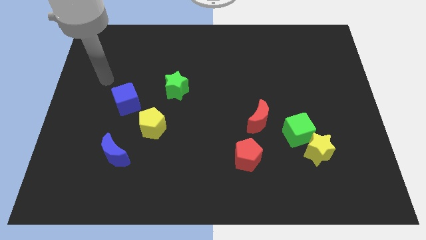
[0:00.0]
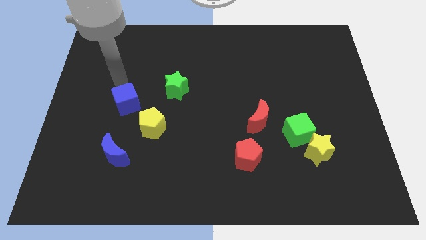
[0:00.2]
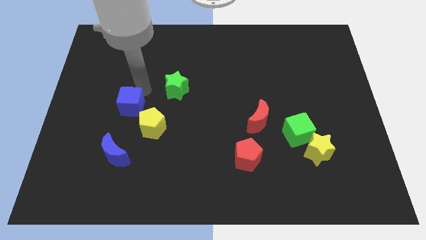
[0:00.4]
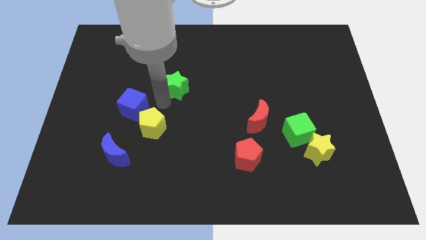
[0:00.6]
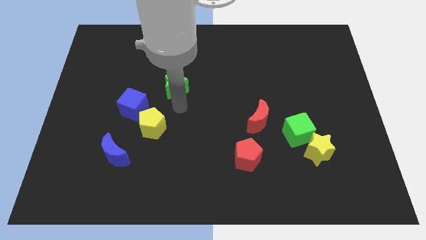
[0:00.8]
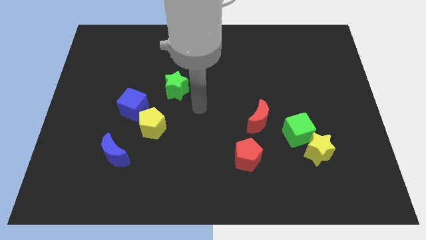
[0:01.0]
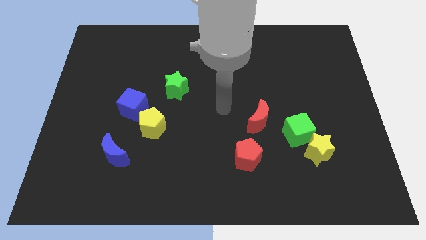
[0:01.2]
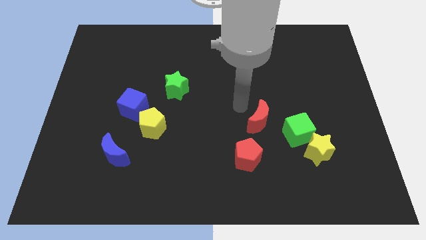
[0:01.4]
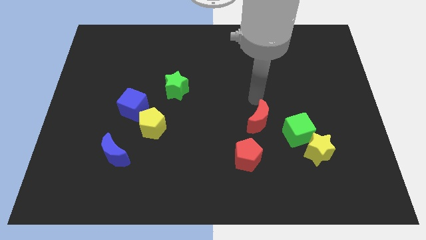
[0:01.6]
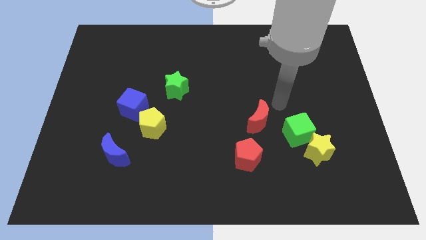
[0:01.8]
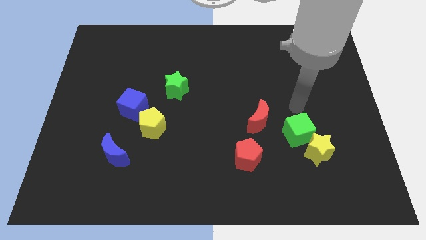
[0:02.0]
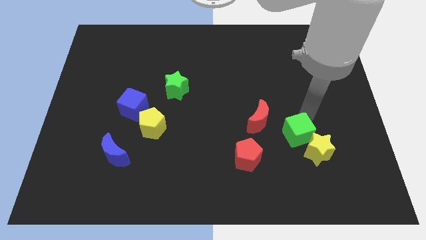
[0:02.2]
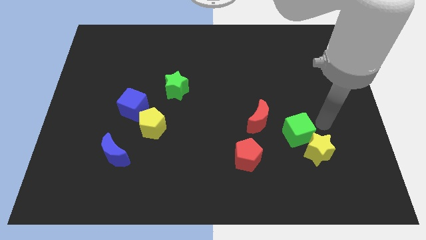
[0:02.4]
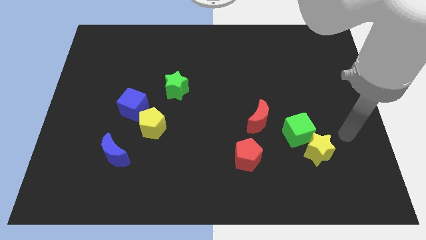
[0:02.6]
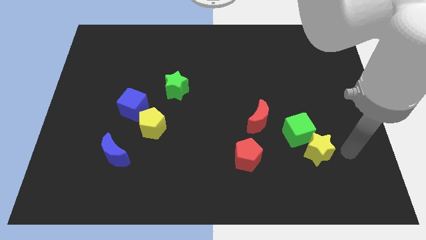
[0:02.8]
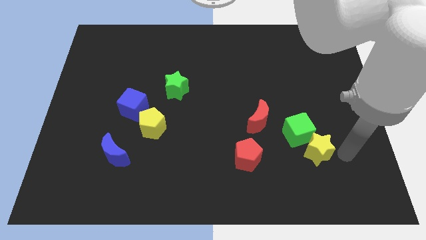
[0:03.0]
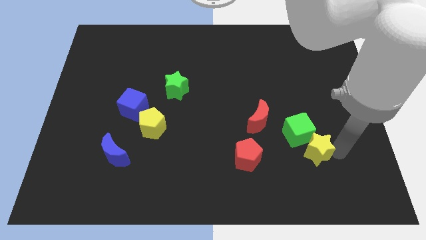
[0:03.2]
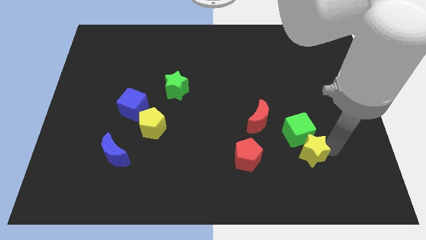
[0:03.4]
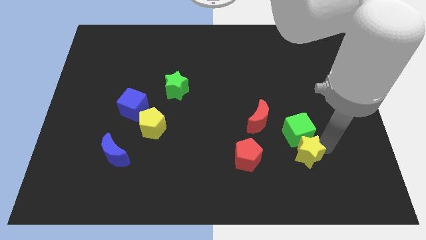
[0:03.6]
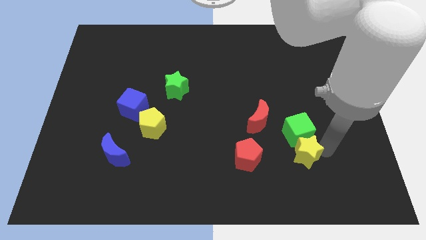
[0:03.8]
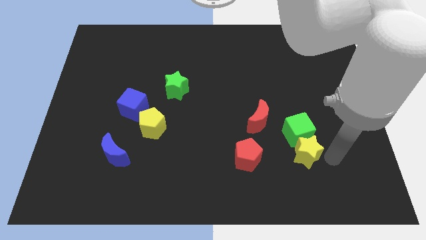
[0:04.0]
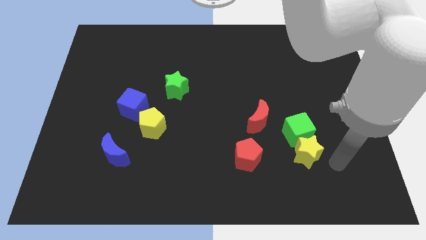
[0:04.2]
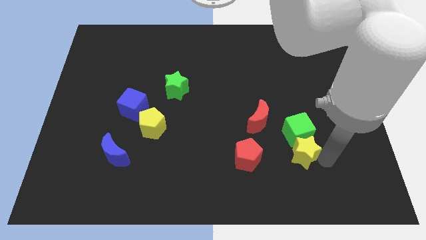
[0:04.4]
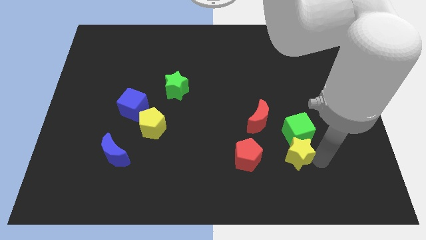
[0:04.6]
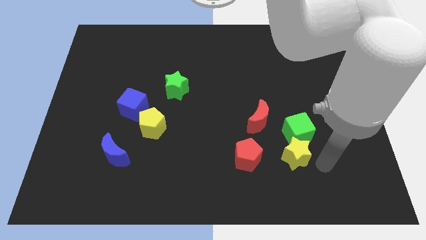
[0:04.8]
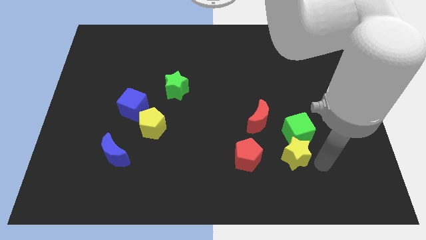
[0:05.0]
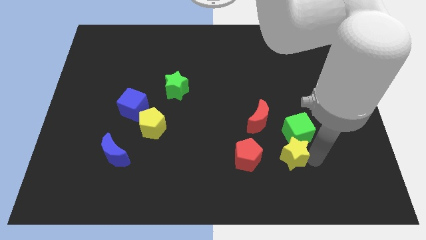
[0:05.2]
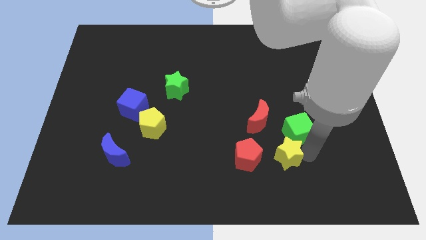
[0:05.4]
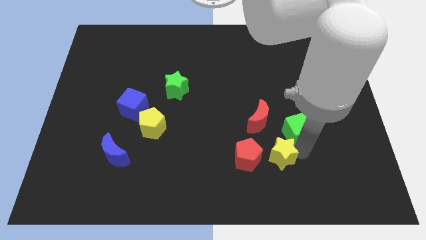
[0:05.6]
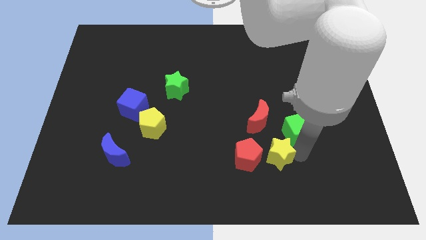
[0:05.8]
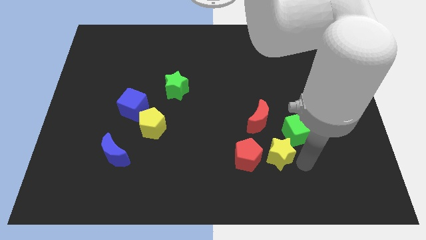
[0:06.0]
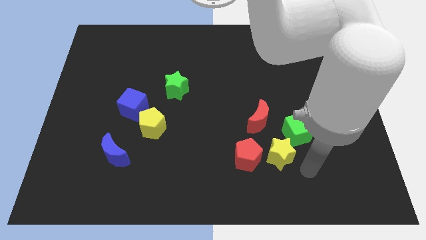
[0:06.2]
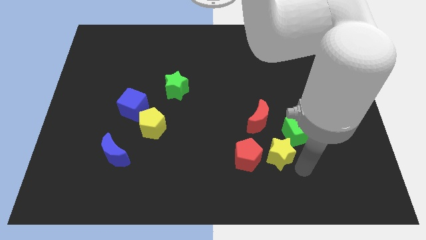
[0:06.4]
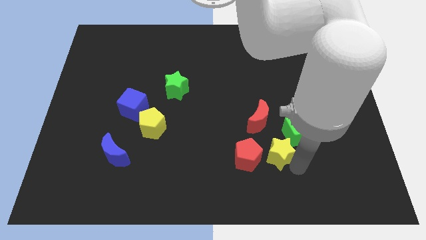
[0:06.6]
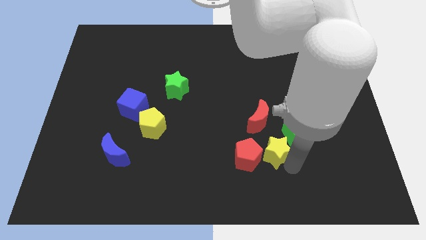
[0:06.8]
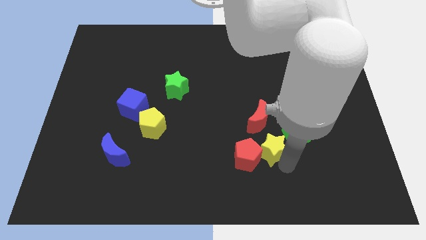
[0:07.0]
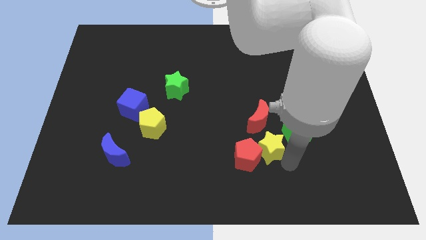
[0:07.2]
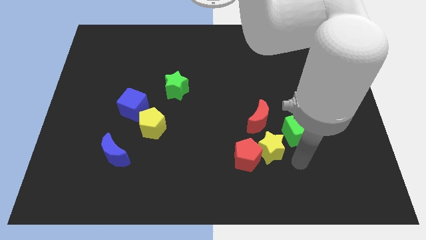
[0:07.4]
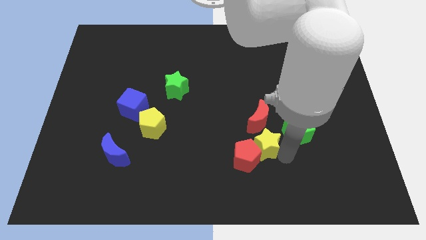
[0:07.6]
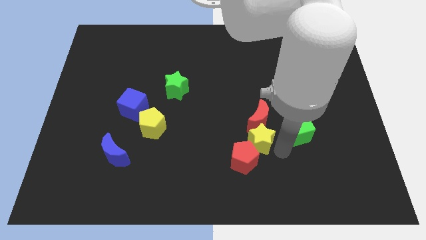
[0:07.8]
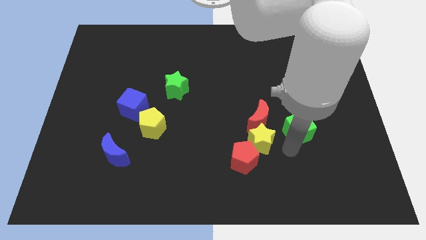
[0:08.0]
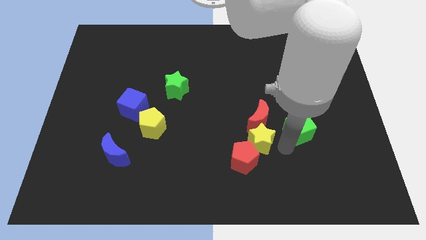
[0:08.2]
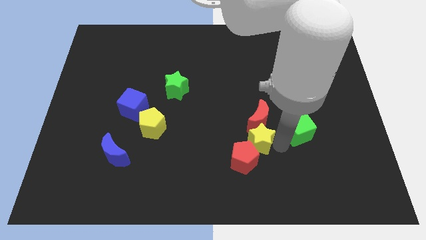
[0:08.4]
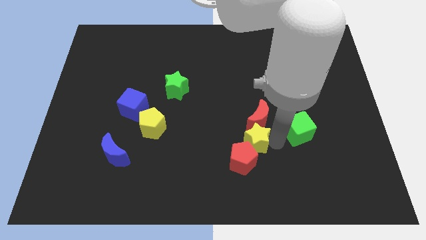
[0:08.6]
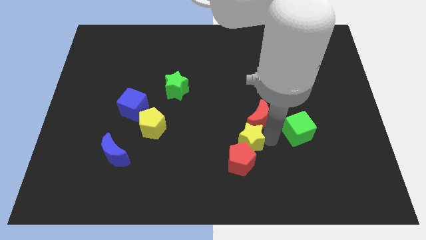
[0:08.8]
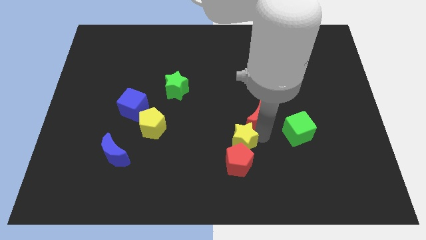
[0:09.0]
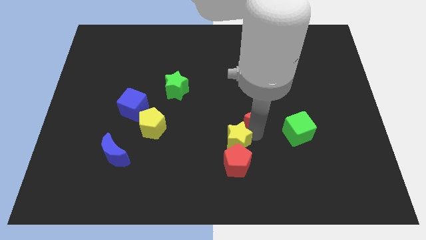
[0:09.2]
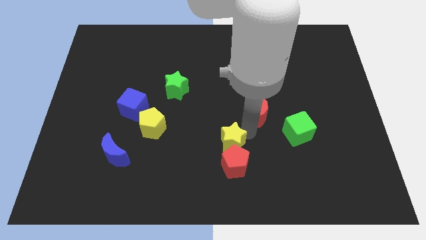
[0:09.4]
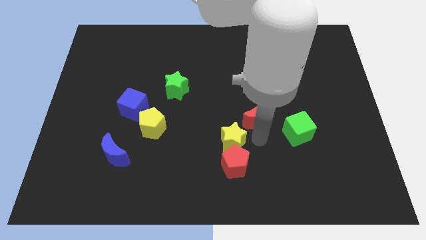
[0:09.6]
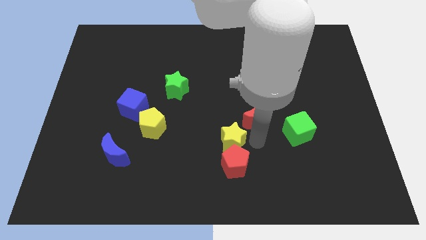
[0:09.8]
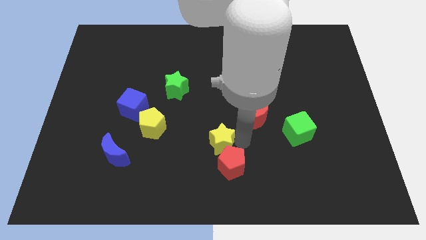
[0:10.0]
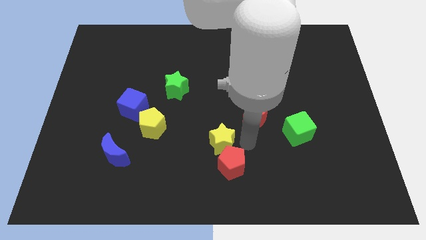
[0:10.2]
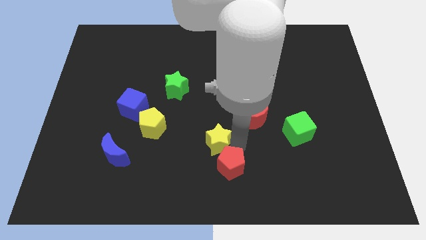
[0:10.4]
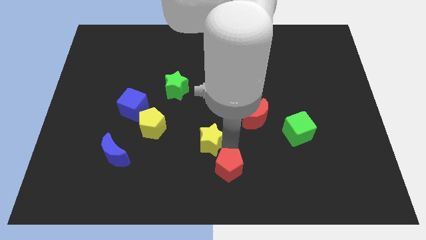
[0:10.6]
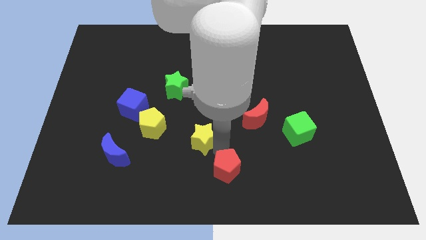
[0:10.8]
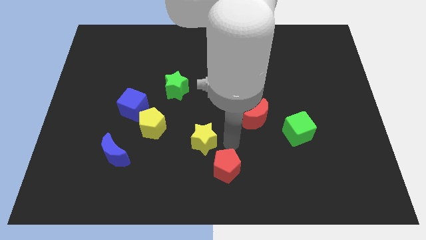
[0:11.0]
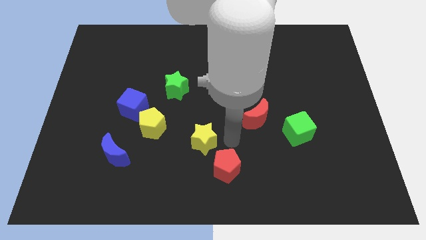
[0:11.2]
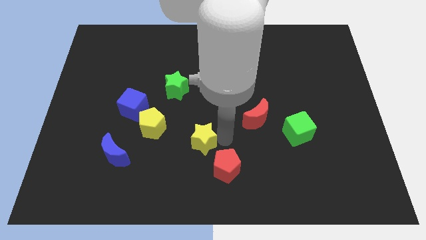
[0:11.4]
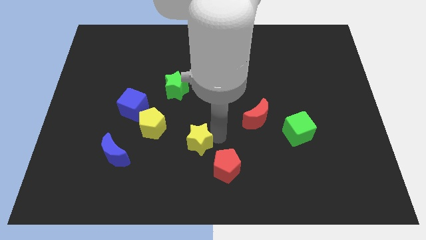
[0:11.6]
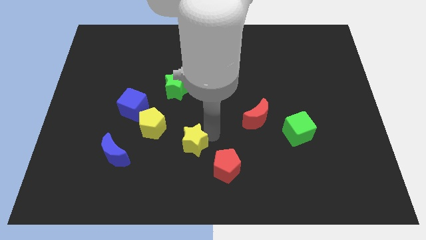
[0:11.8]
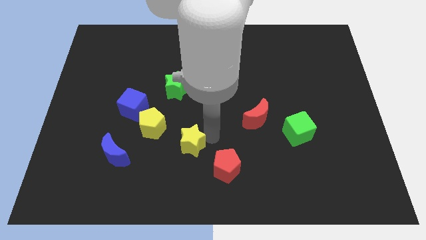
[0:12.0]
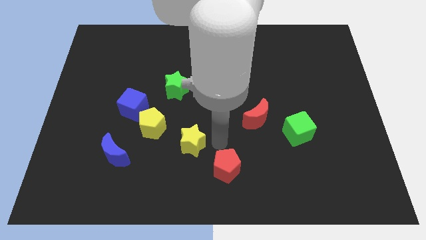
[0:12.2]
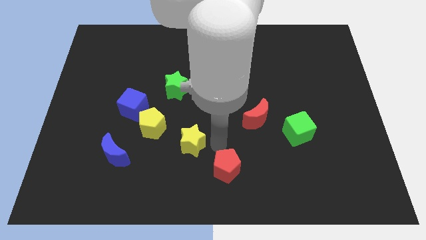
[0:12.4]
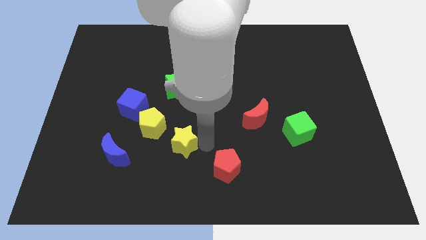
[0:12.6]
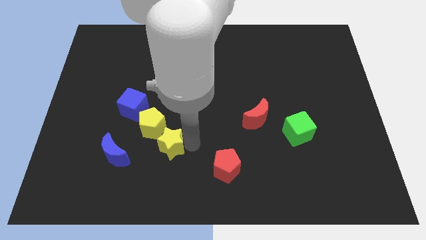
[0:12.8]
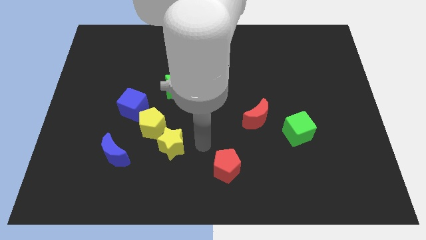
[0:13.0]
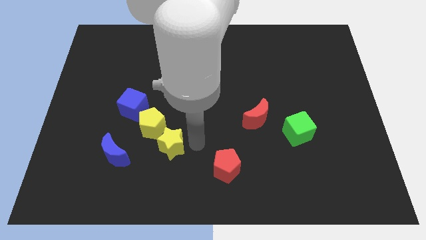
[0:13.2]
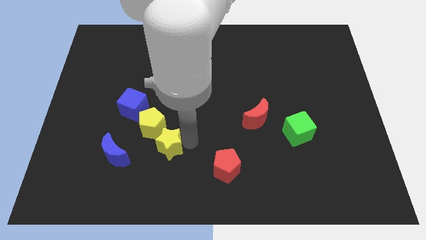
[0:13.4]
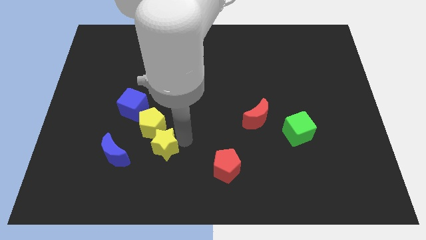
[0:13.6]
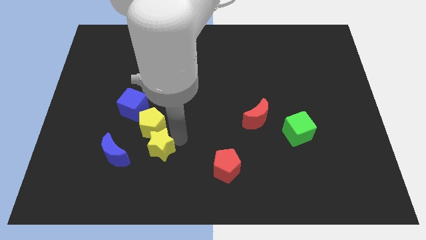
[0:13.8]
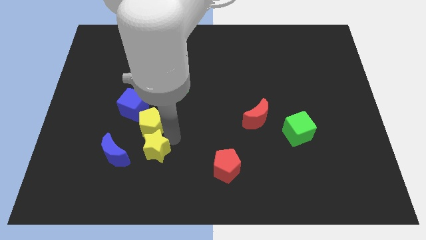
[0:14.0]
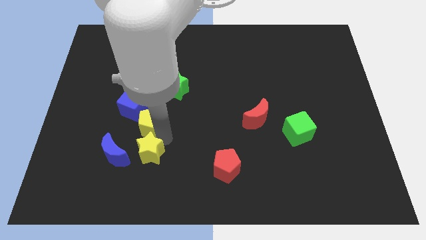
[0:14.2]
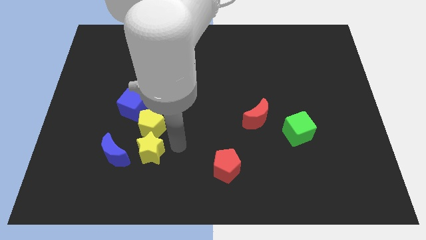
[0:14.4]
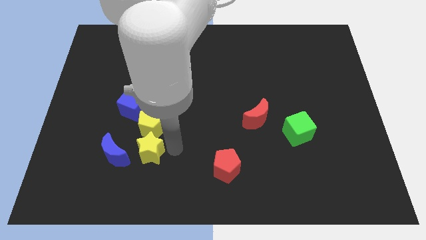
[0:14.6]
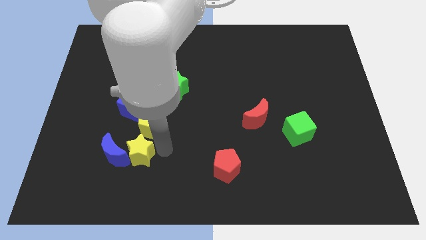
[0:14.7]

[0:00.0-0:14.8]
move the yellow star to the blue moon
